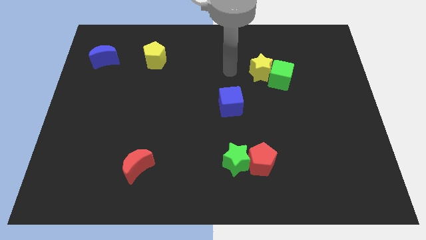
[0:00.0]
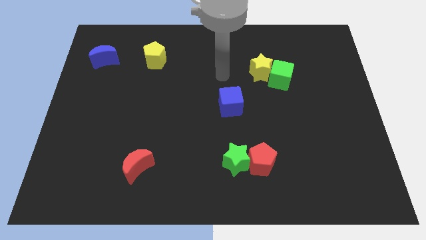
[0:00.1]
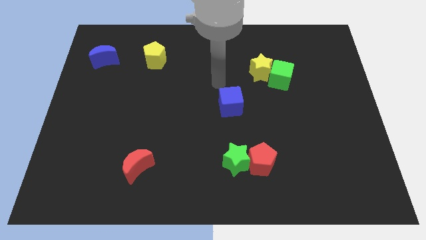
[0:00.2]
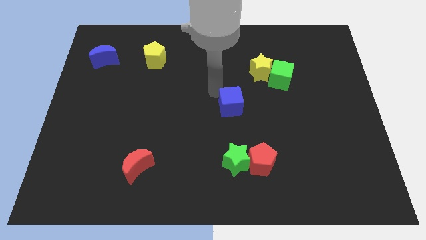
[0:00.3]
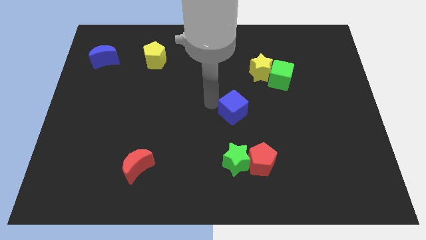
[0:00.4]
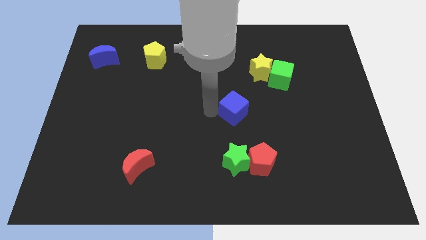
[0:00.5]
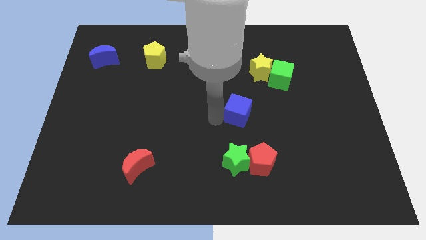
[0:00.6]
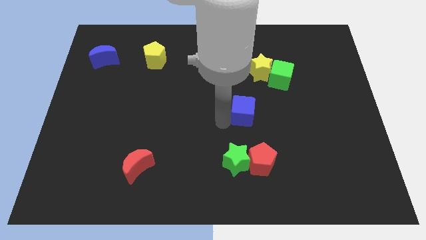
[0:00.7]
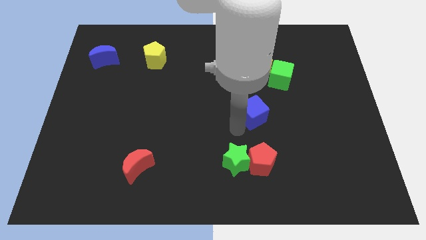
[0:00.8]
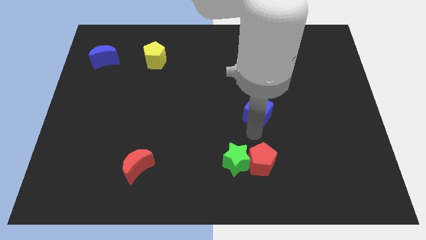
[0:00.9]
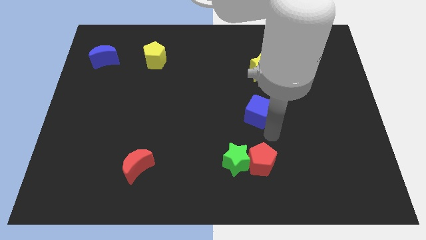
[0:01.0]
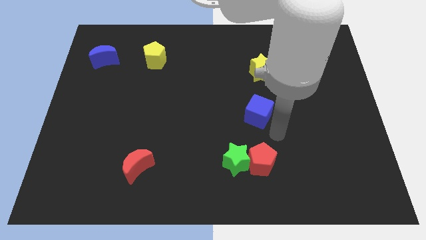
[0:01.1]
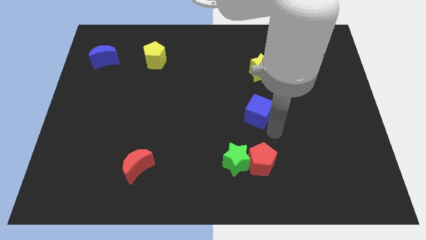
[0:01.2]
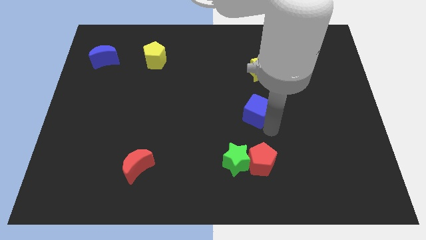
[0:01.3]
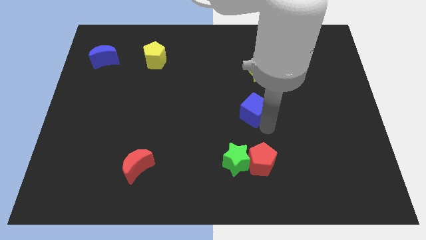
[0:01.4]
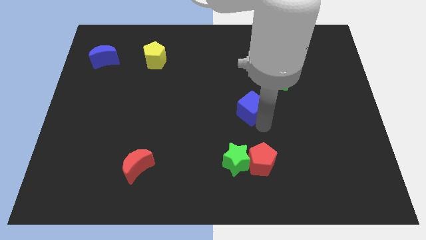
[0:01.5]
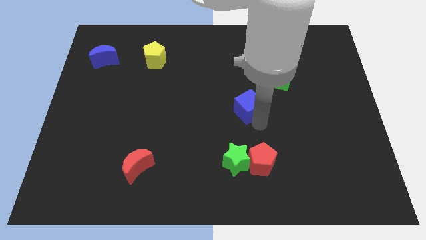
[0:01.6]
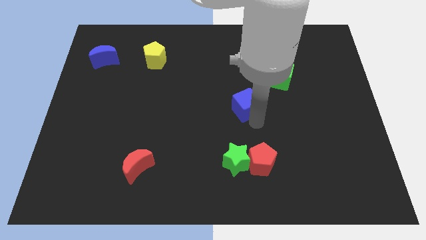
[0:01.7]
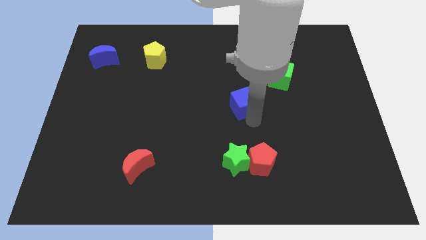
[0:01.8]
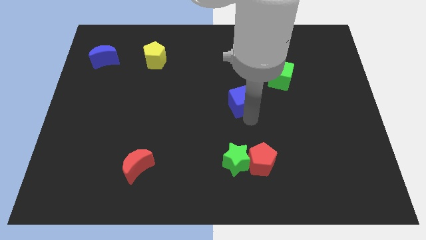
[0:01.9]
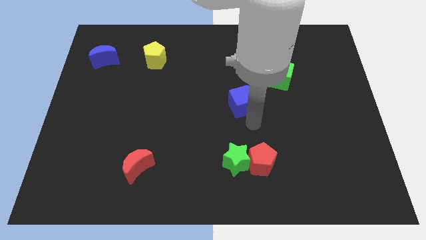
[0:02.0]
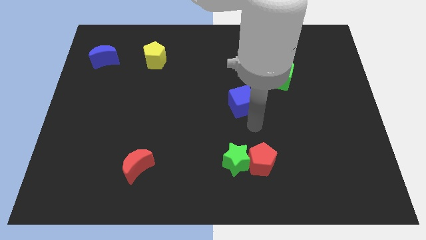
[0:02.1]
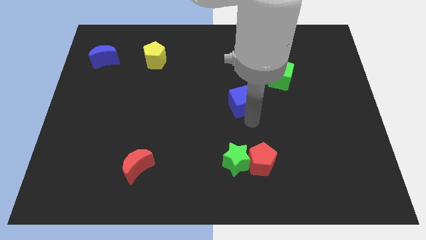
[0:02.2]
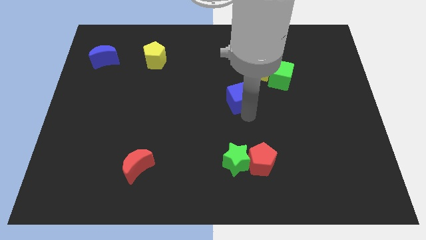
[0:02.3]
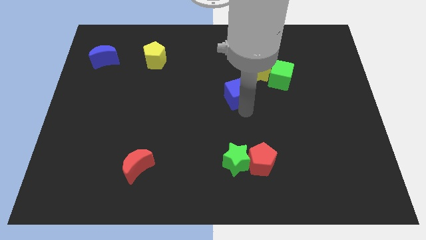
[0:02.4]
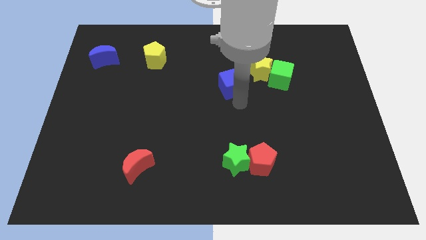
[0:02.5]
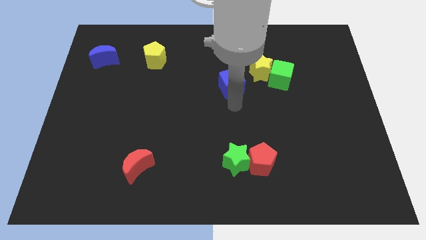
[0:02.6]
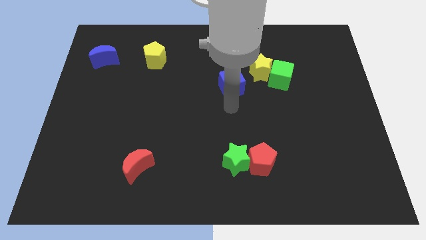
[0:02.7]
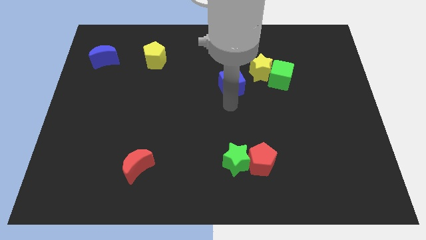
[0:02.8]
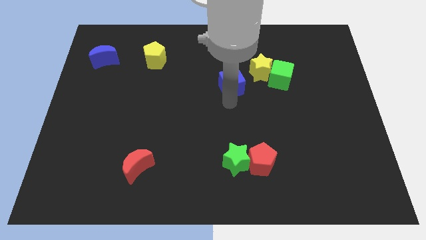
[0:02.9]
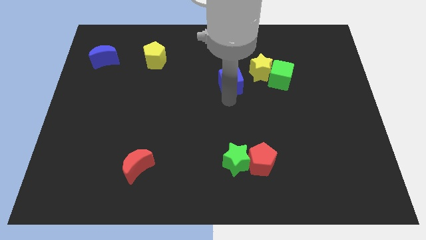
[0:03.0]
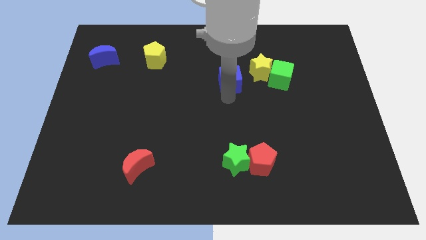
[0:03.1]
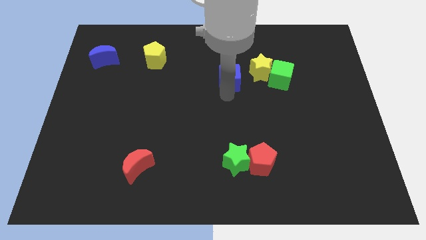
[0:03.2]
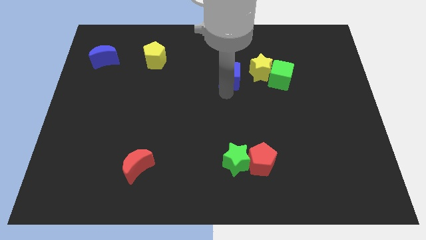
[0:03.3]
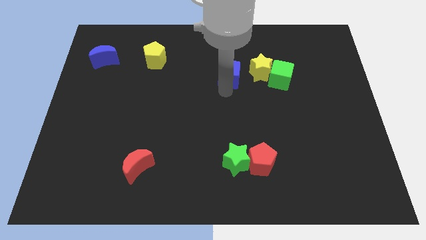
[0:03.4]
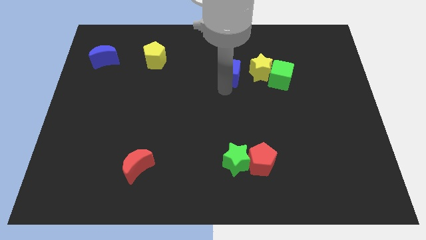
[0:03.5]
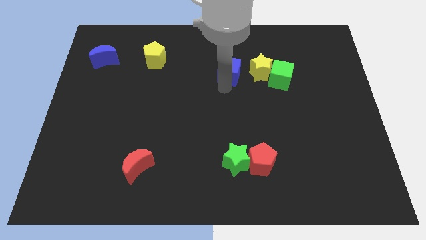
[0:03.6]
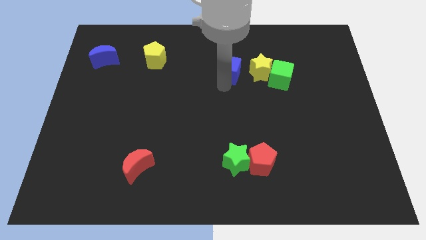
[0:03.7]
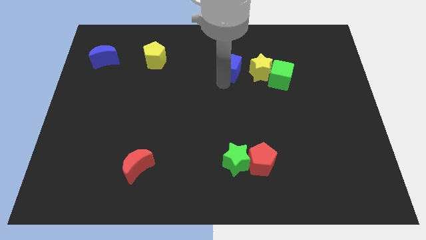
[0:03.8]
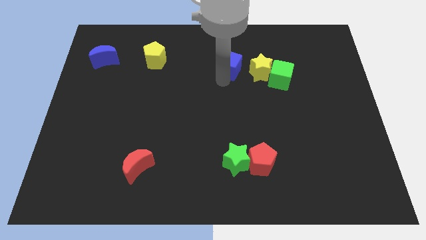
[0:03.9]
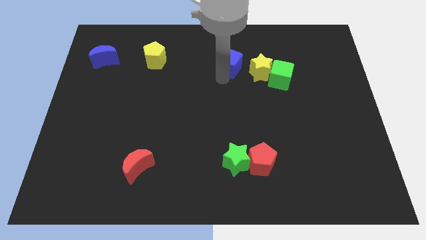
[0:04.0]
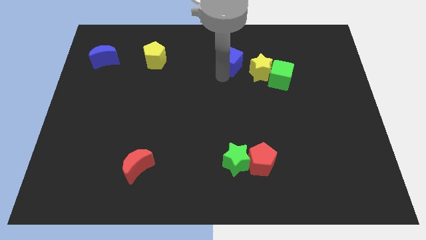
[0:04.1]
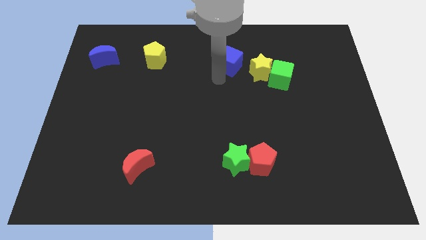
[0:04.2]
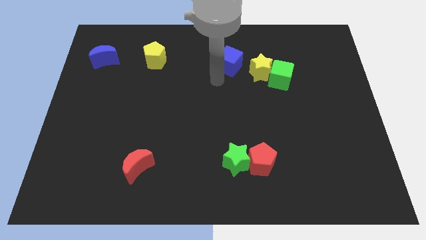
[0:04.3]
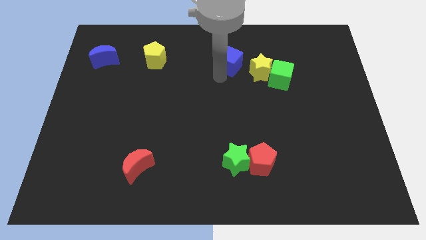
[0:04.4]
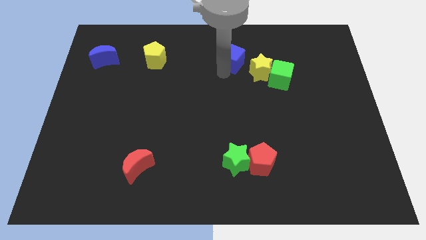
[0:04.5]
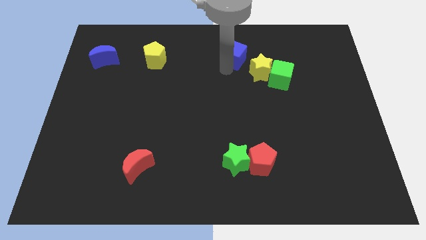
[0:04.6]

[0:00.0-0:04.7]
move the blue cube up and then to the right somewhat

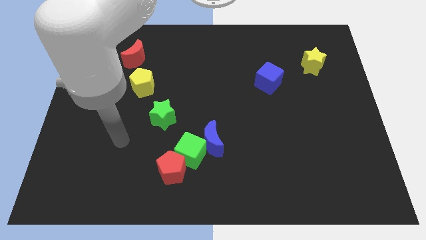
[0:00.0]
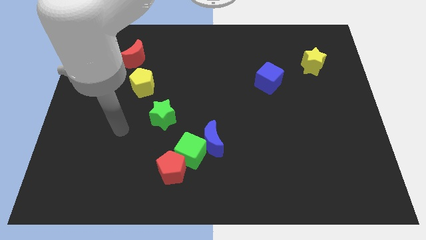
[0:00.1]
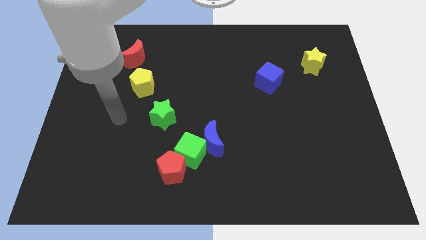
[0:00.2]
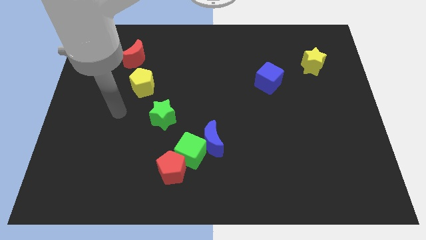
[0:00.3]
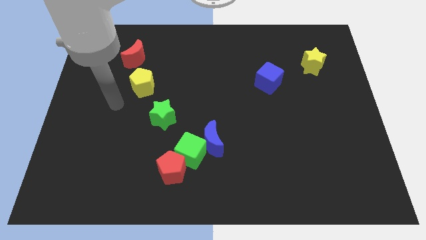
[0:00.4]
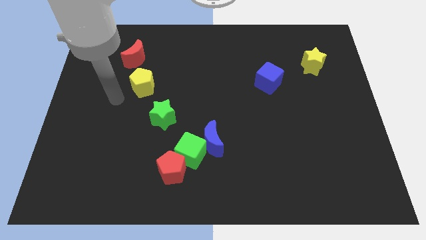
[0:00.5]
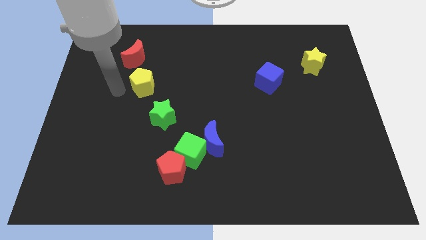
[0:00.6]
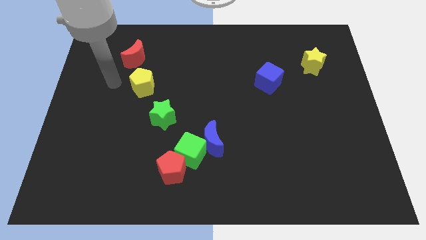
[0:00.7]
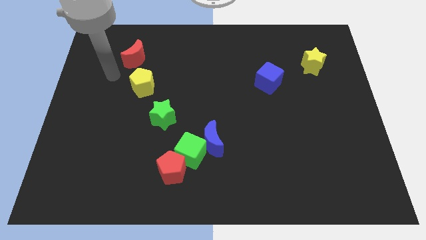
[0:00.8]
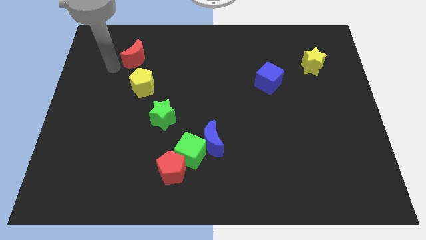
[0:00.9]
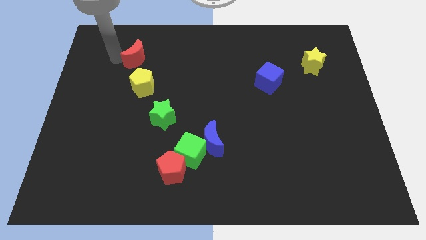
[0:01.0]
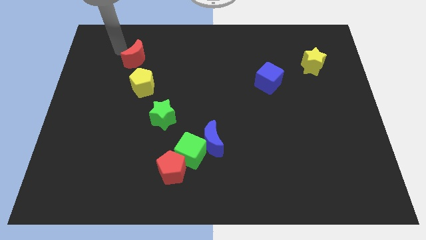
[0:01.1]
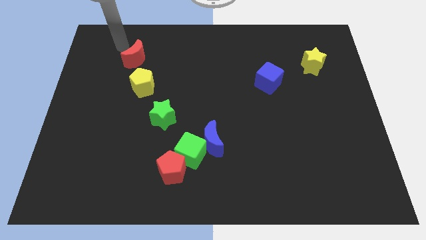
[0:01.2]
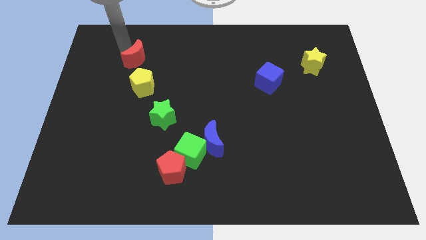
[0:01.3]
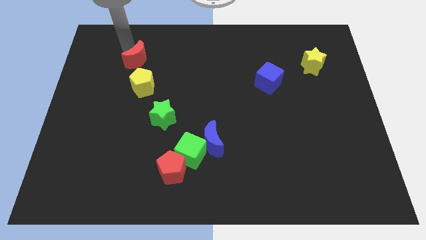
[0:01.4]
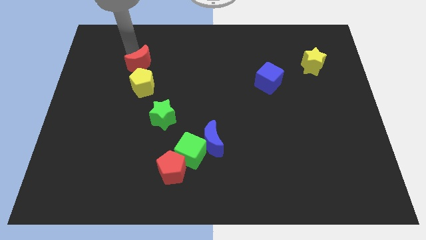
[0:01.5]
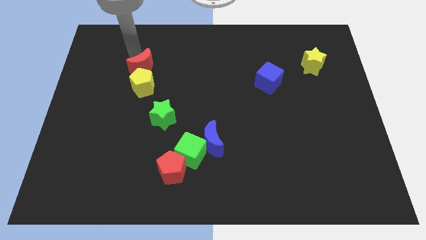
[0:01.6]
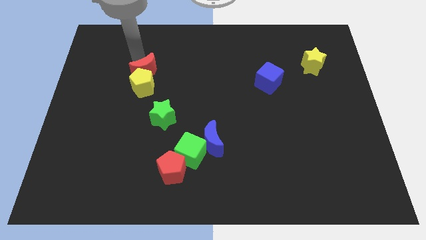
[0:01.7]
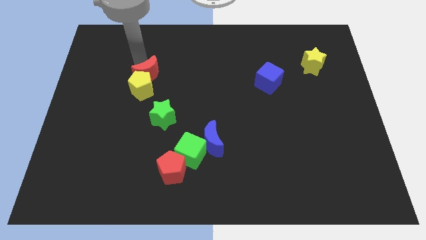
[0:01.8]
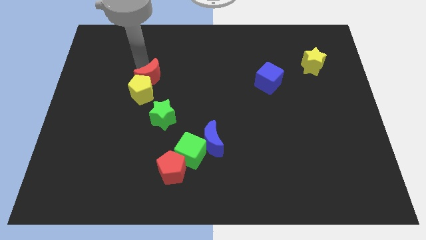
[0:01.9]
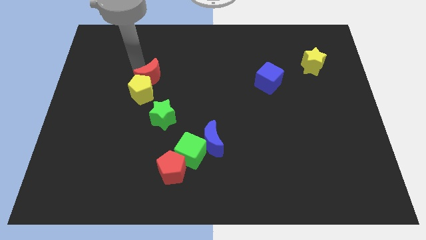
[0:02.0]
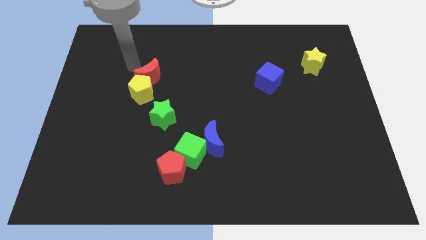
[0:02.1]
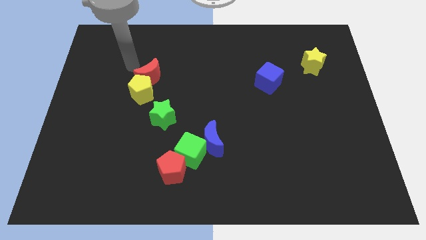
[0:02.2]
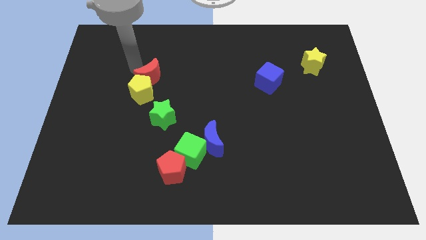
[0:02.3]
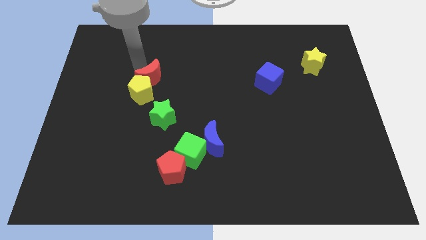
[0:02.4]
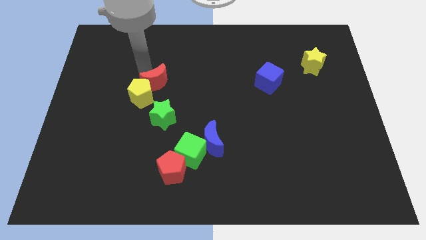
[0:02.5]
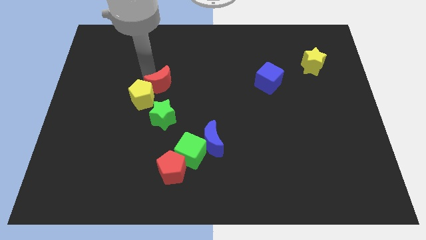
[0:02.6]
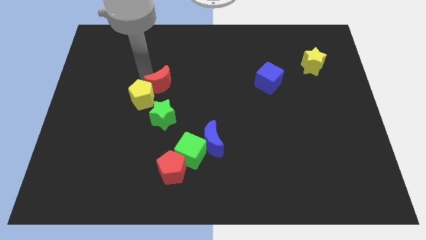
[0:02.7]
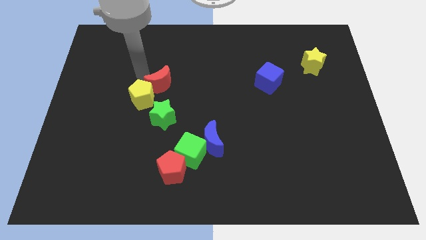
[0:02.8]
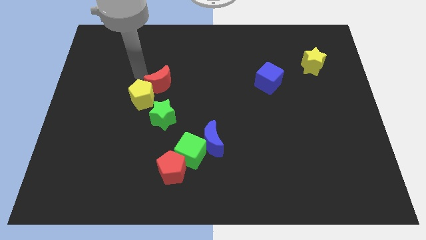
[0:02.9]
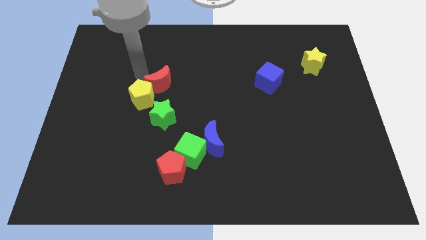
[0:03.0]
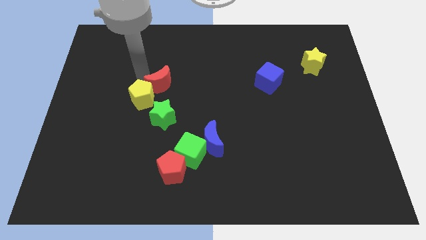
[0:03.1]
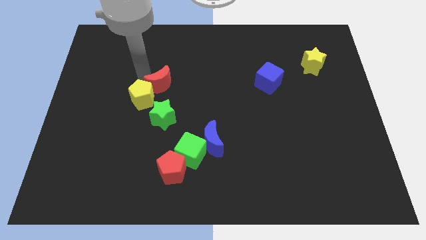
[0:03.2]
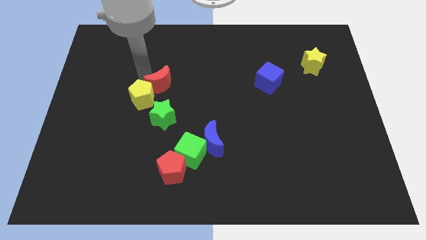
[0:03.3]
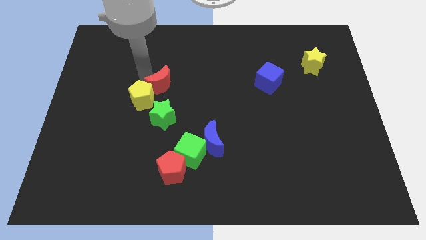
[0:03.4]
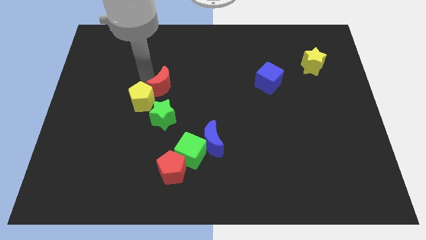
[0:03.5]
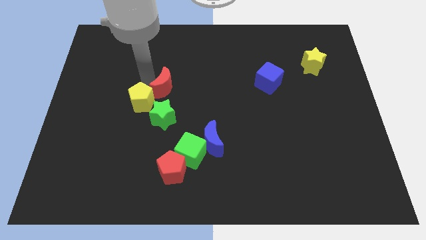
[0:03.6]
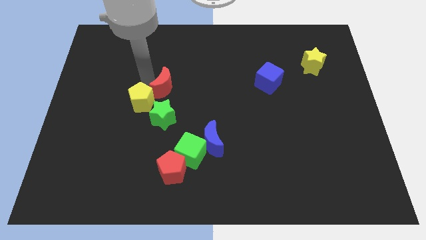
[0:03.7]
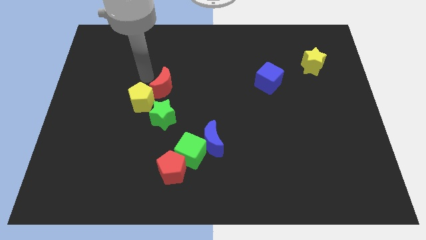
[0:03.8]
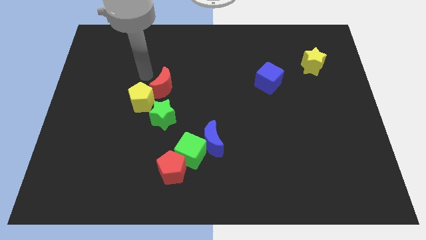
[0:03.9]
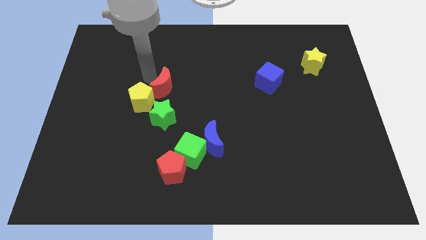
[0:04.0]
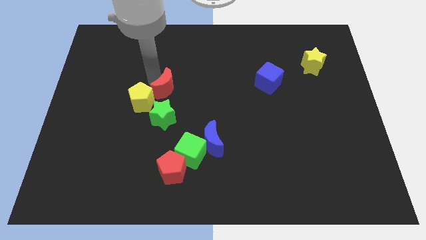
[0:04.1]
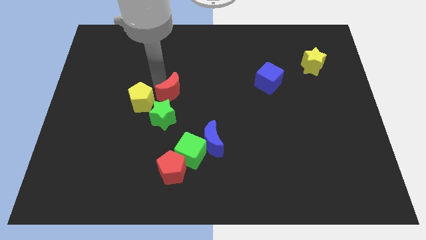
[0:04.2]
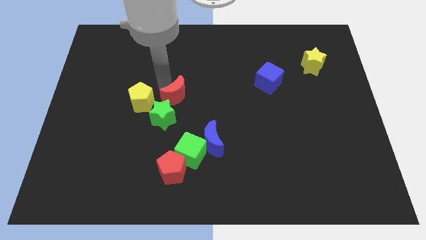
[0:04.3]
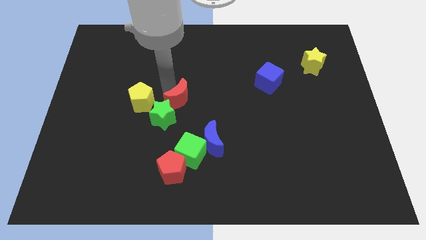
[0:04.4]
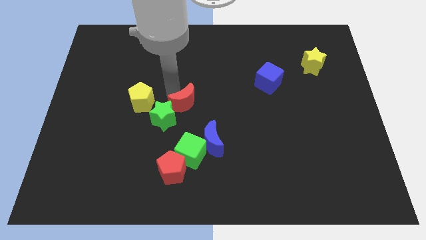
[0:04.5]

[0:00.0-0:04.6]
push the red moon downwards and to the right diagonally
